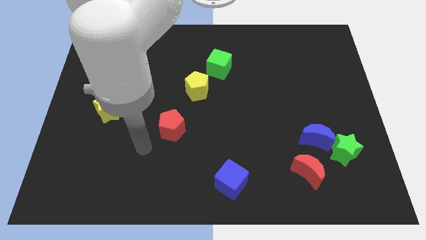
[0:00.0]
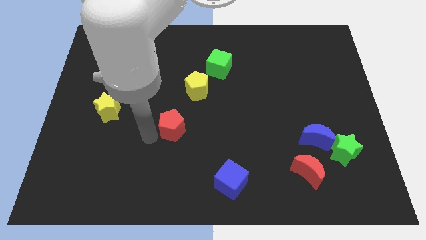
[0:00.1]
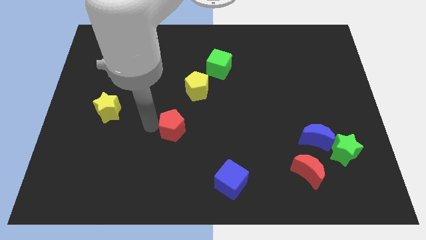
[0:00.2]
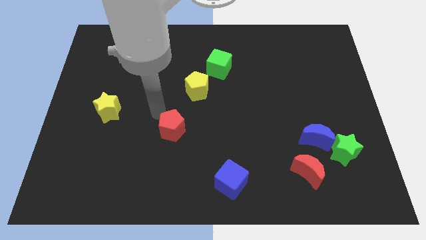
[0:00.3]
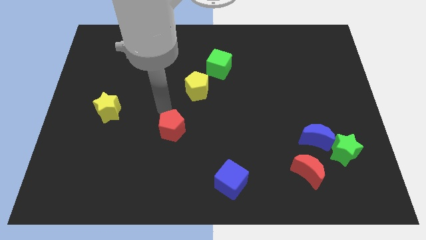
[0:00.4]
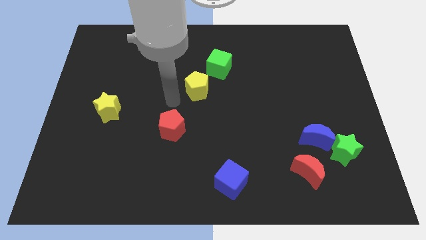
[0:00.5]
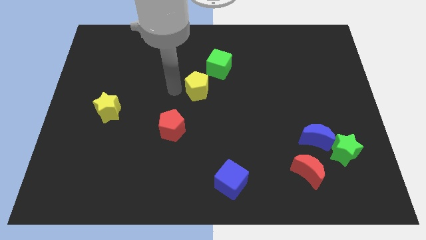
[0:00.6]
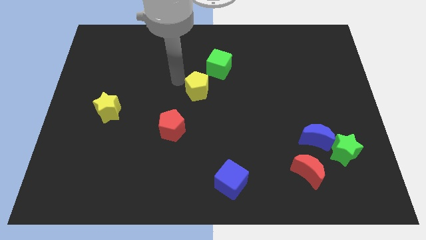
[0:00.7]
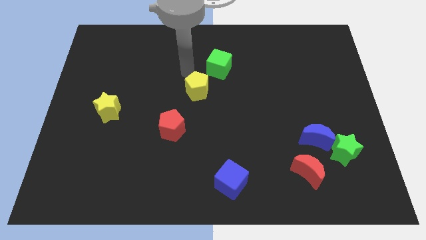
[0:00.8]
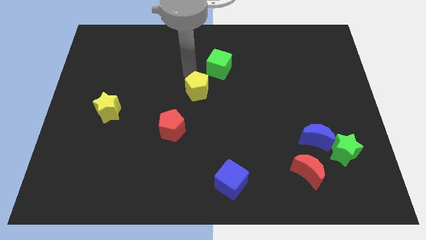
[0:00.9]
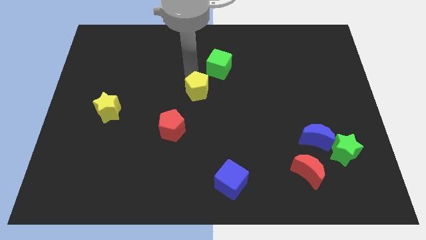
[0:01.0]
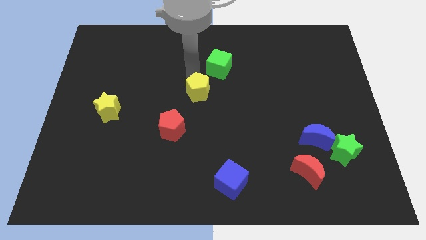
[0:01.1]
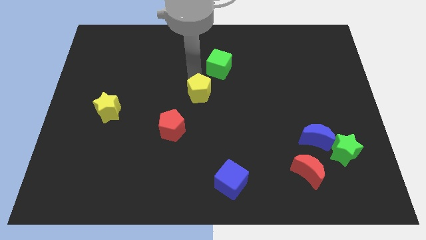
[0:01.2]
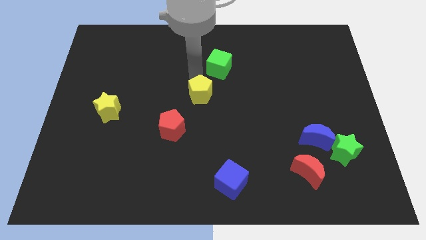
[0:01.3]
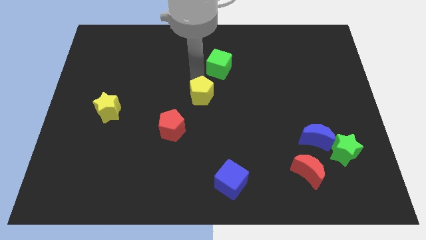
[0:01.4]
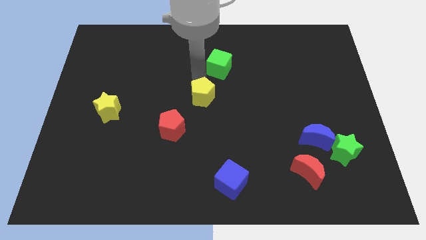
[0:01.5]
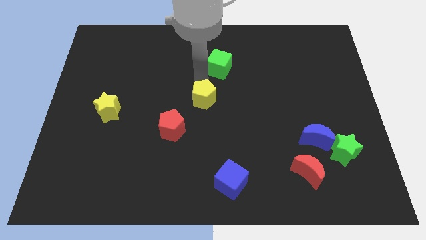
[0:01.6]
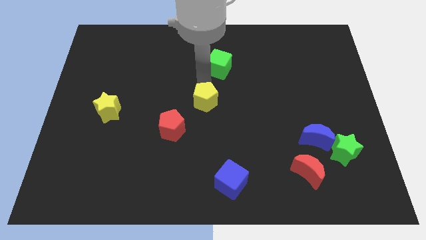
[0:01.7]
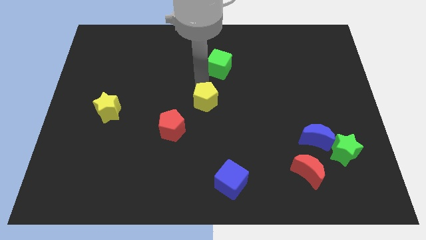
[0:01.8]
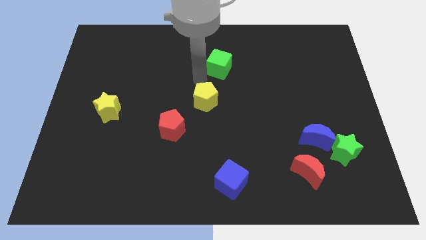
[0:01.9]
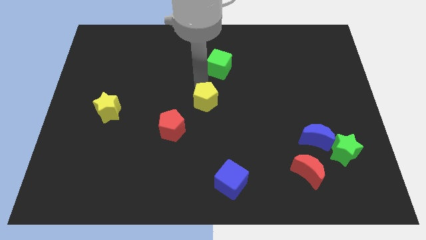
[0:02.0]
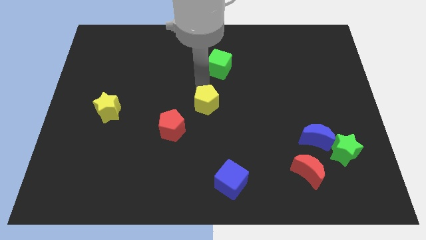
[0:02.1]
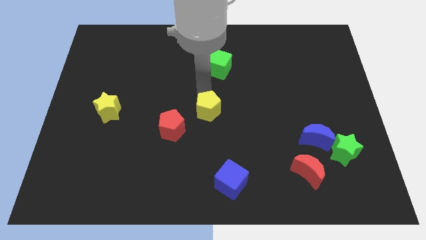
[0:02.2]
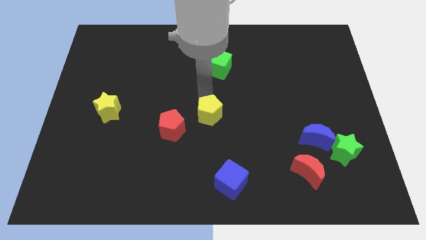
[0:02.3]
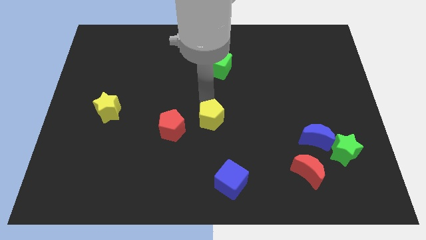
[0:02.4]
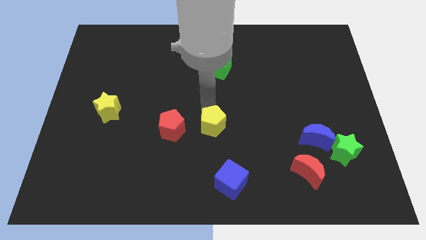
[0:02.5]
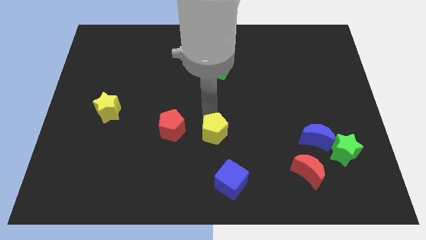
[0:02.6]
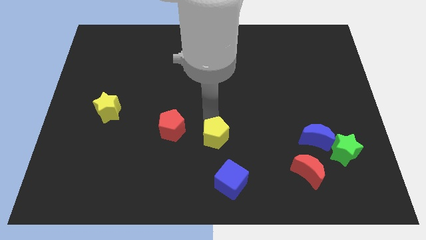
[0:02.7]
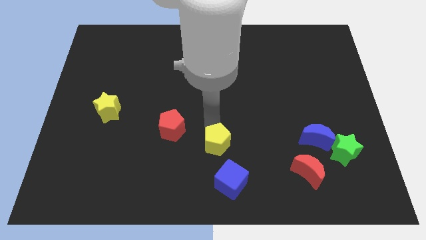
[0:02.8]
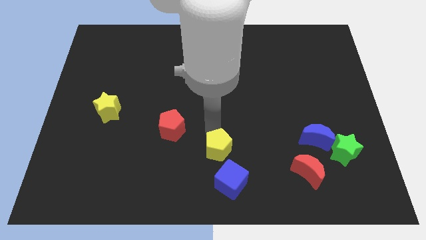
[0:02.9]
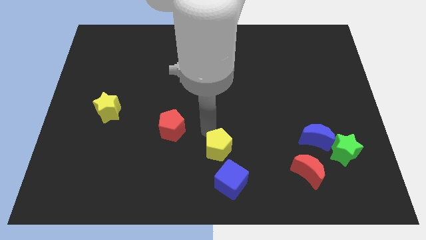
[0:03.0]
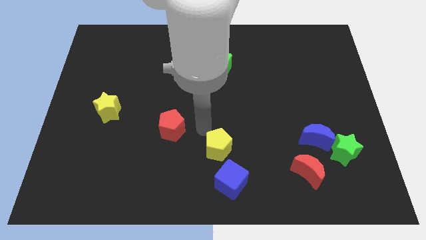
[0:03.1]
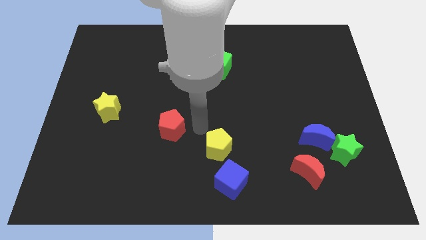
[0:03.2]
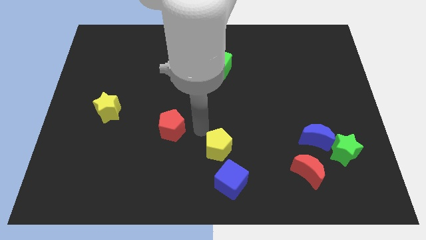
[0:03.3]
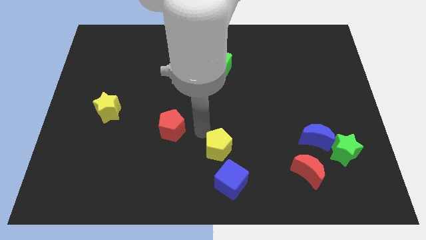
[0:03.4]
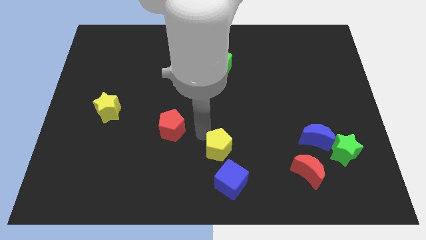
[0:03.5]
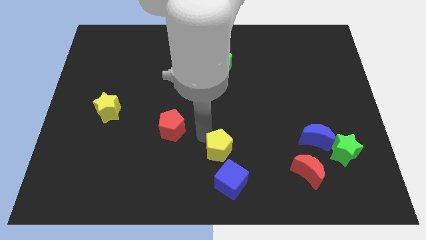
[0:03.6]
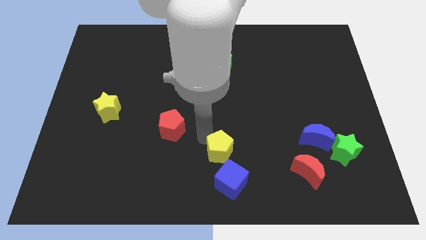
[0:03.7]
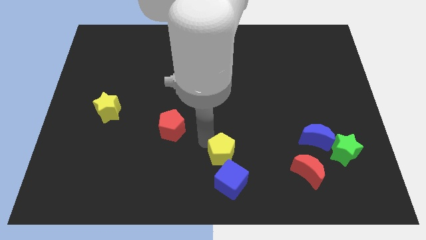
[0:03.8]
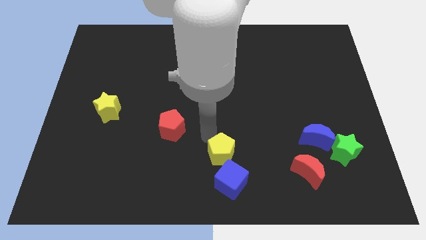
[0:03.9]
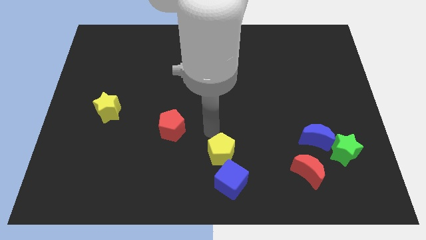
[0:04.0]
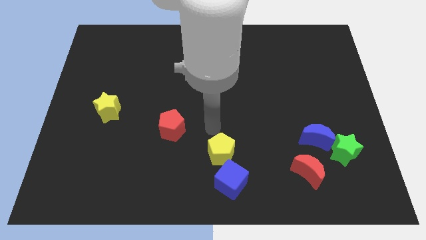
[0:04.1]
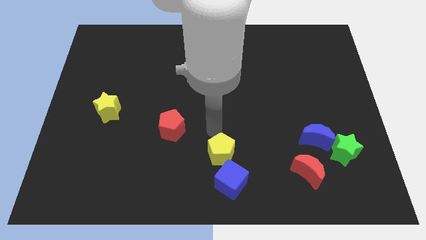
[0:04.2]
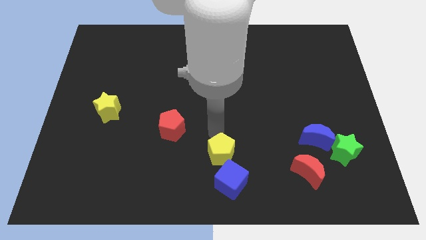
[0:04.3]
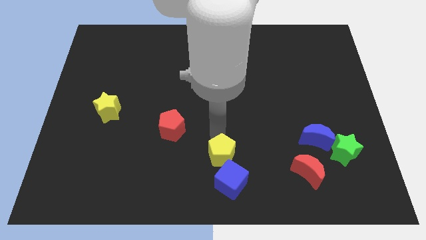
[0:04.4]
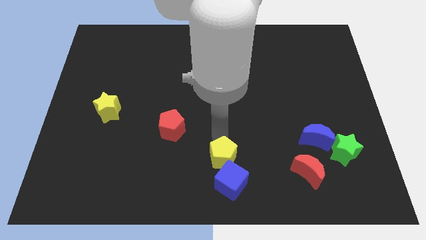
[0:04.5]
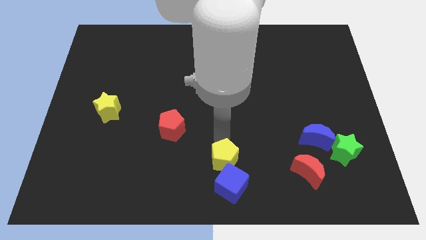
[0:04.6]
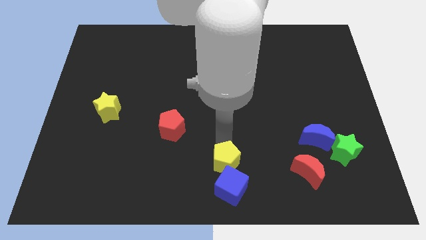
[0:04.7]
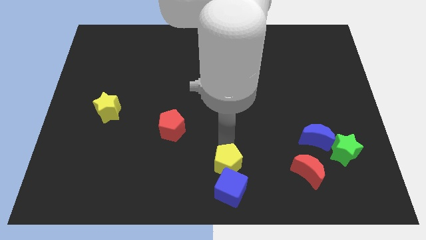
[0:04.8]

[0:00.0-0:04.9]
move the yellow pentagon close to the blue cube

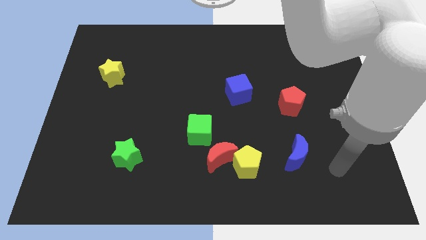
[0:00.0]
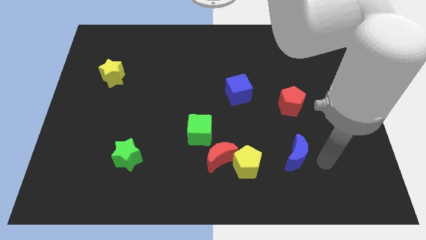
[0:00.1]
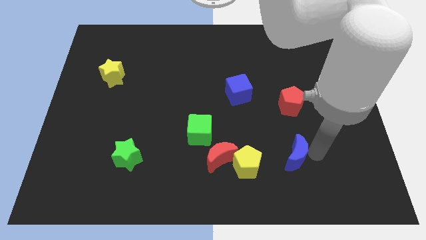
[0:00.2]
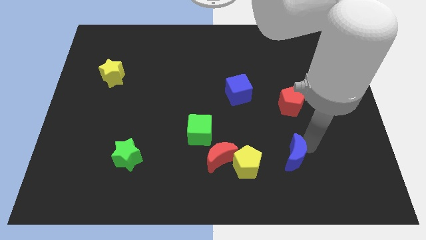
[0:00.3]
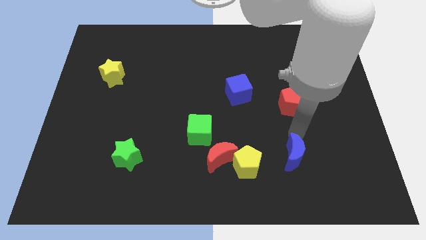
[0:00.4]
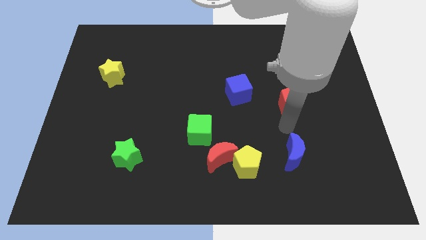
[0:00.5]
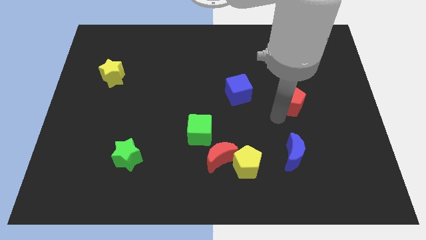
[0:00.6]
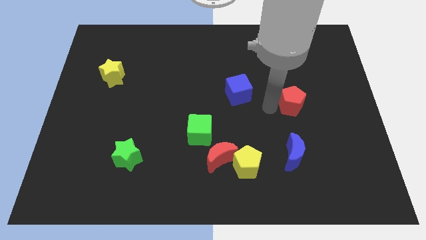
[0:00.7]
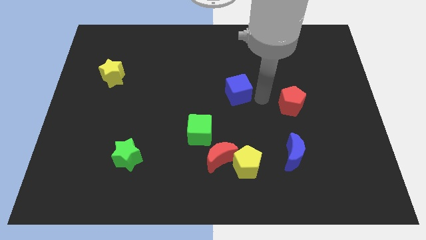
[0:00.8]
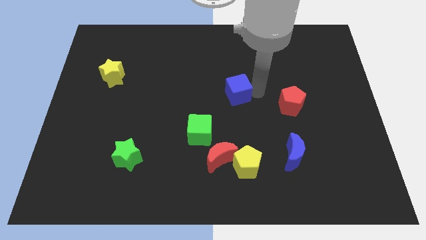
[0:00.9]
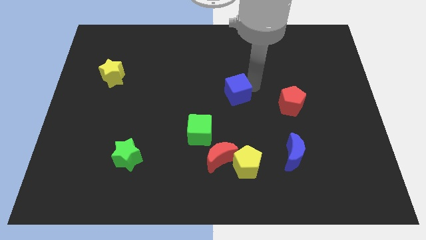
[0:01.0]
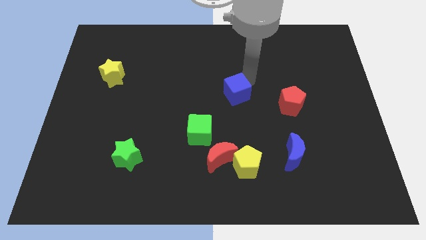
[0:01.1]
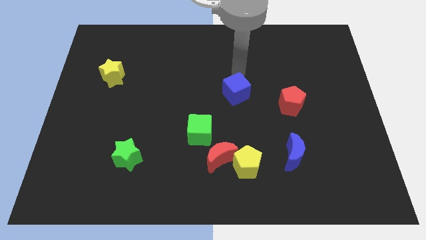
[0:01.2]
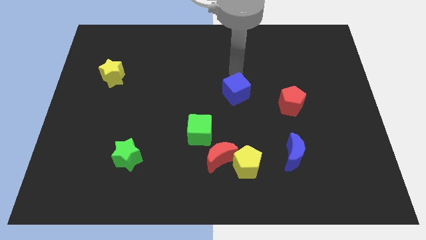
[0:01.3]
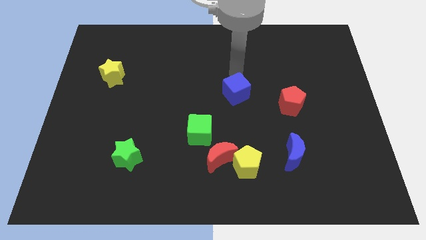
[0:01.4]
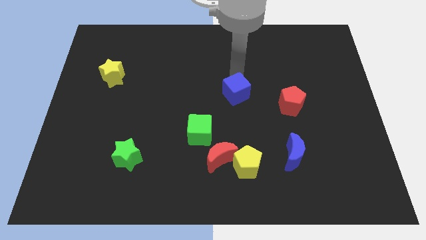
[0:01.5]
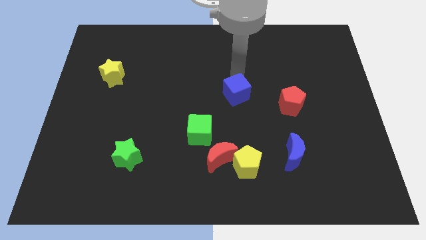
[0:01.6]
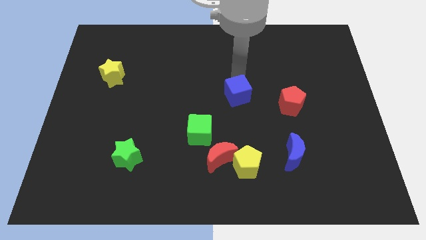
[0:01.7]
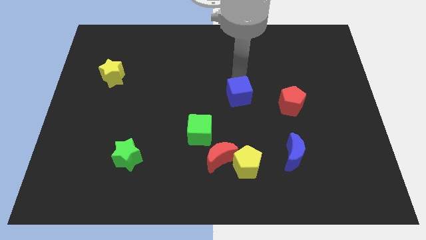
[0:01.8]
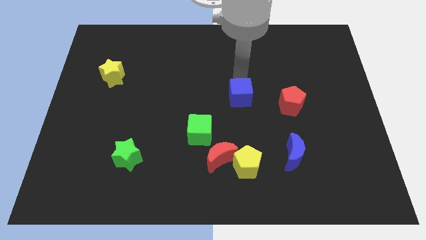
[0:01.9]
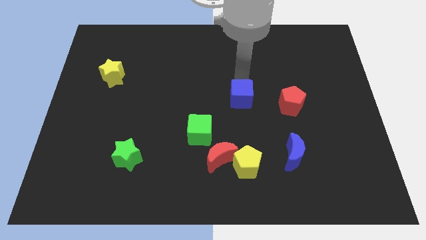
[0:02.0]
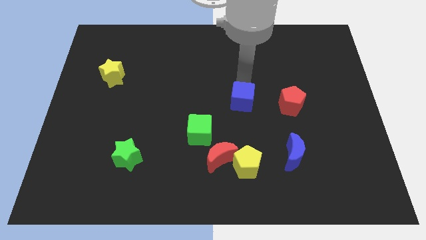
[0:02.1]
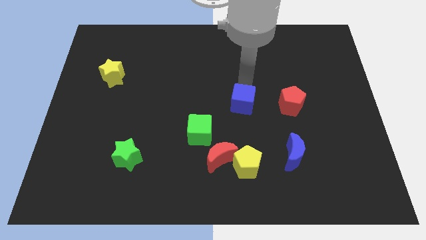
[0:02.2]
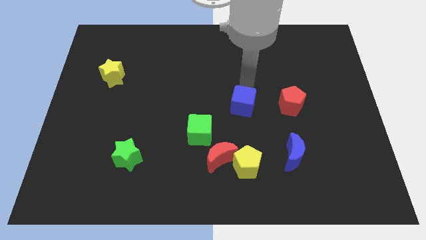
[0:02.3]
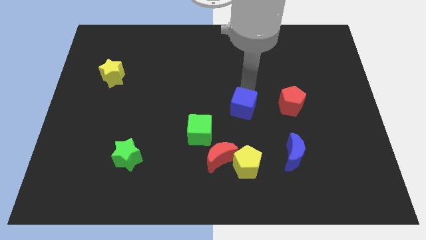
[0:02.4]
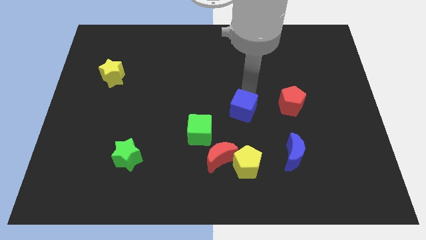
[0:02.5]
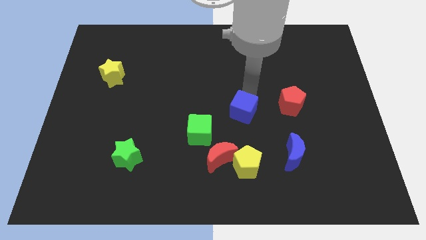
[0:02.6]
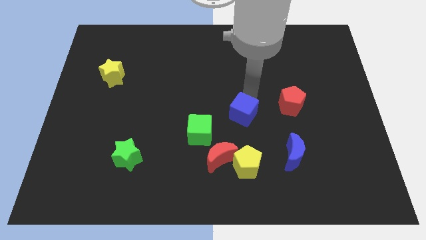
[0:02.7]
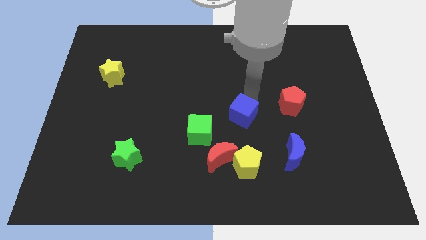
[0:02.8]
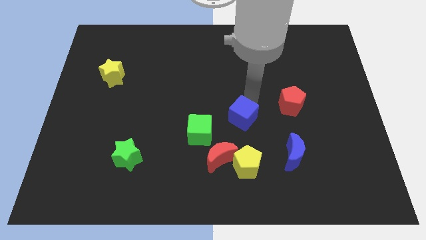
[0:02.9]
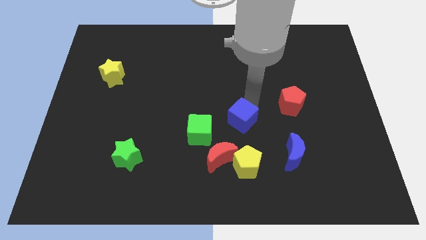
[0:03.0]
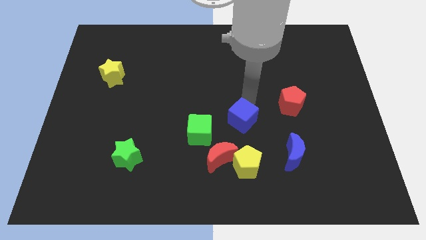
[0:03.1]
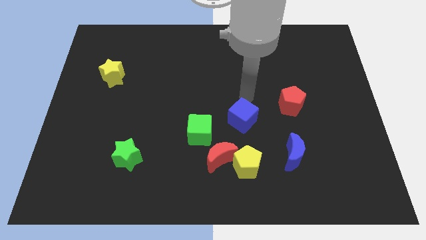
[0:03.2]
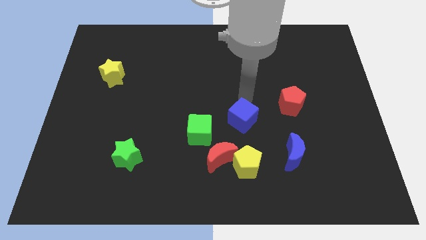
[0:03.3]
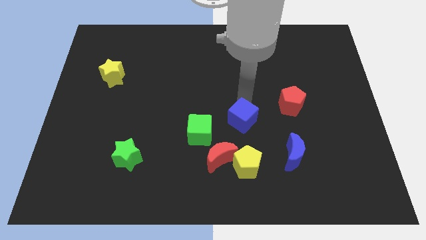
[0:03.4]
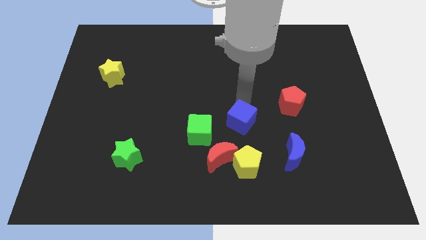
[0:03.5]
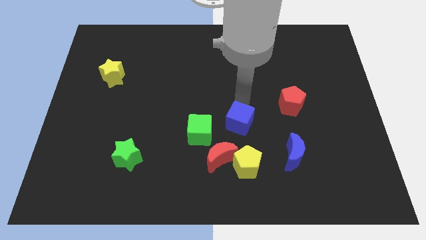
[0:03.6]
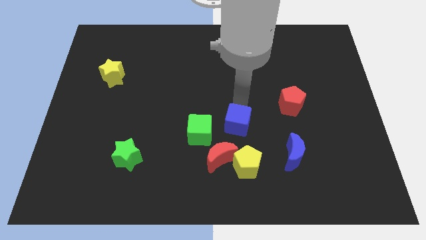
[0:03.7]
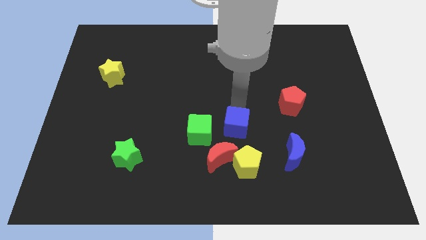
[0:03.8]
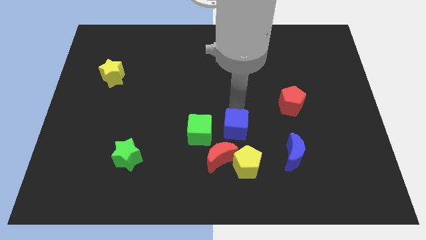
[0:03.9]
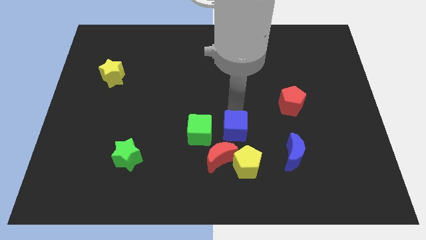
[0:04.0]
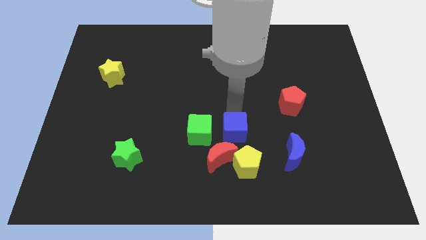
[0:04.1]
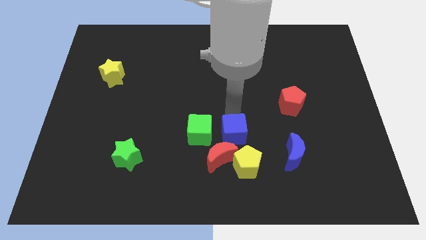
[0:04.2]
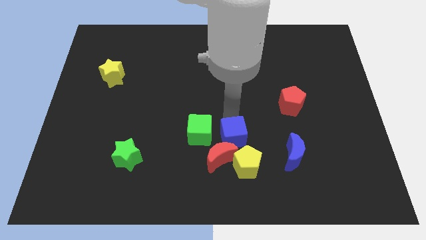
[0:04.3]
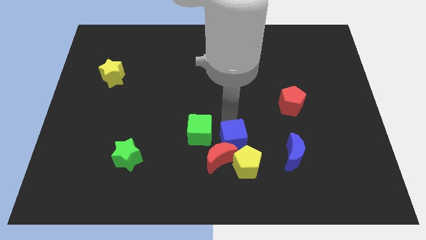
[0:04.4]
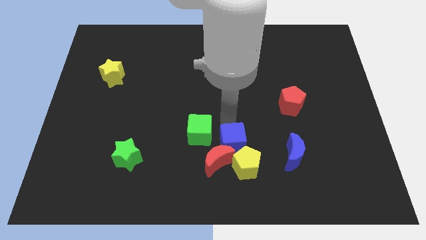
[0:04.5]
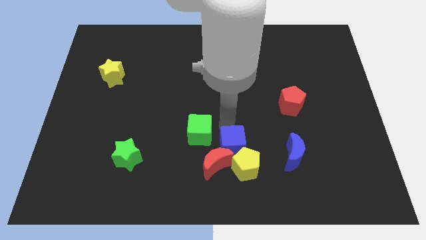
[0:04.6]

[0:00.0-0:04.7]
push the blue cube towards the yellow pentagon
